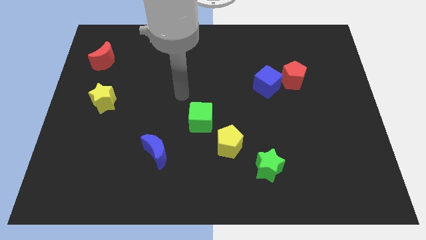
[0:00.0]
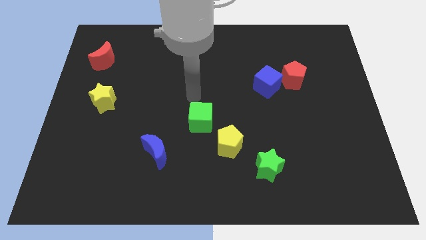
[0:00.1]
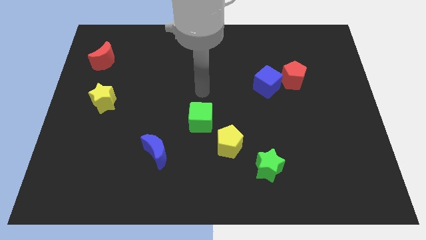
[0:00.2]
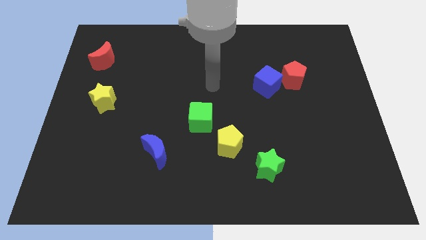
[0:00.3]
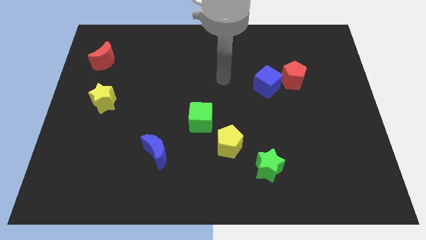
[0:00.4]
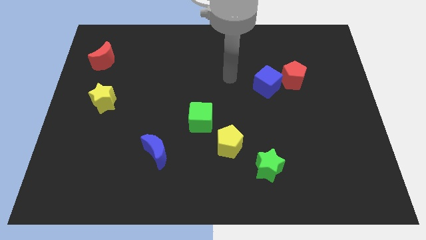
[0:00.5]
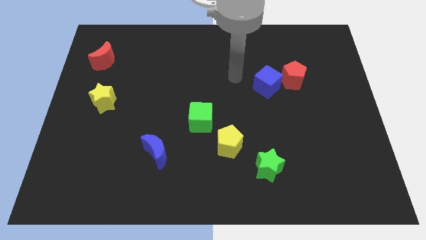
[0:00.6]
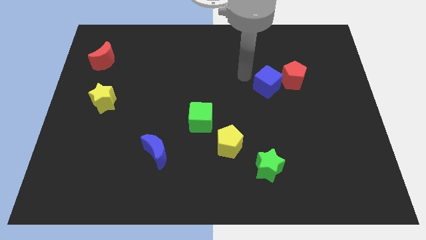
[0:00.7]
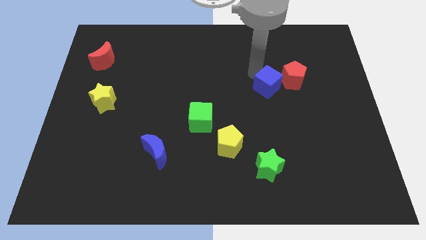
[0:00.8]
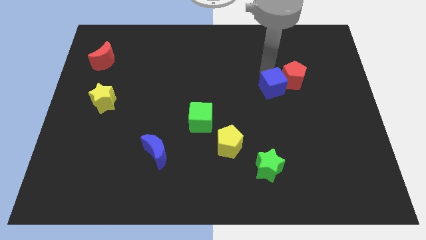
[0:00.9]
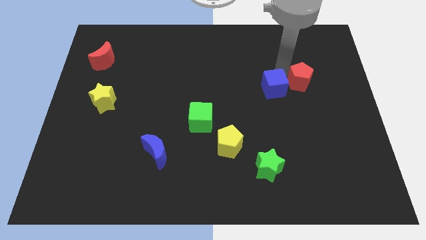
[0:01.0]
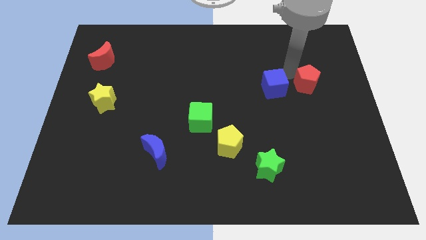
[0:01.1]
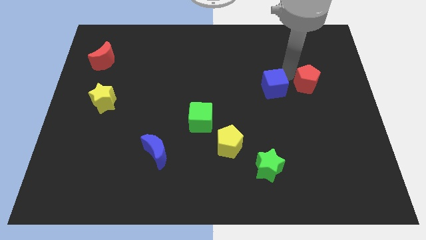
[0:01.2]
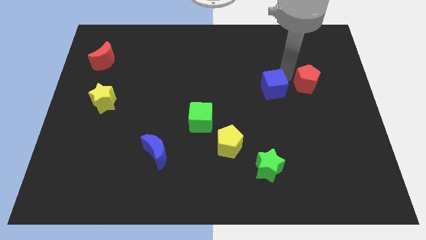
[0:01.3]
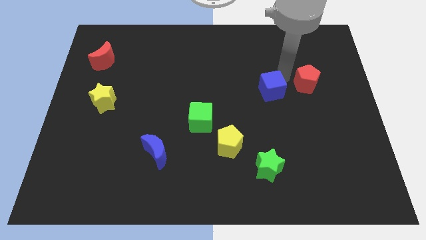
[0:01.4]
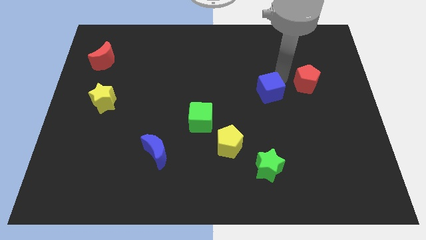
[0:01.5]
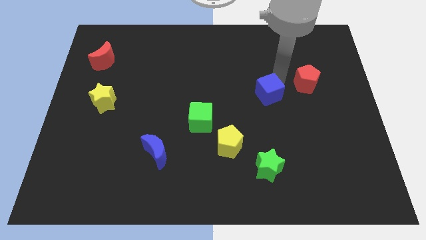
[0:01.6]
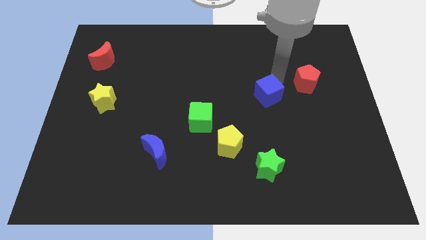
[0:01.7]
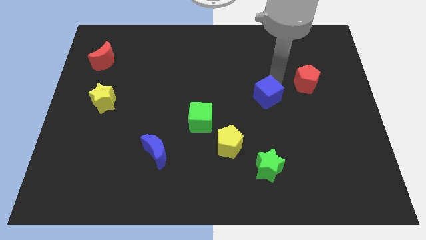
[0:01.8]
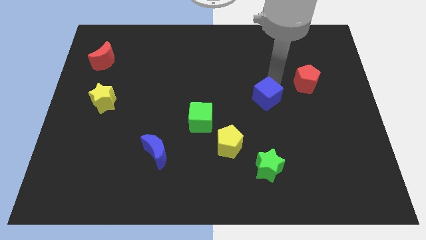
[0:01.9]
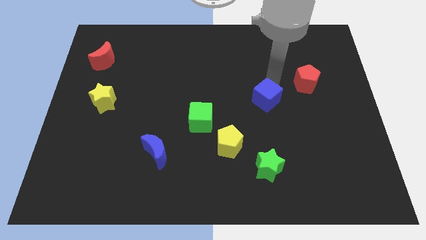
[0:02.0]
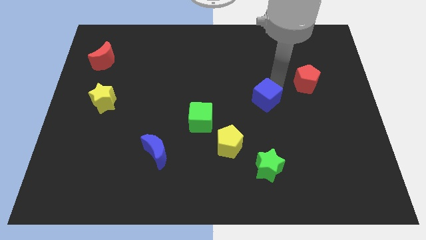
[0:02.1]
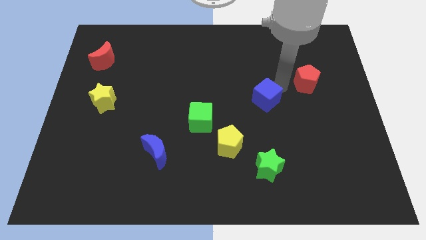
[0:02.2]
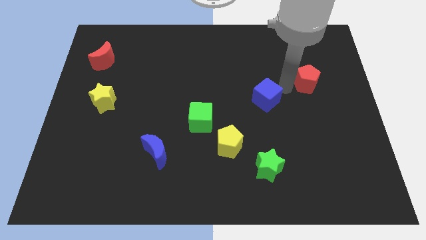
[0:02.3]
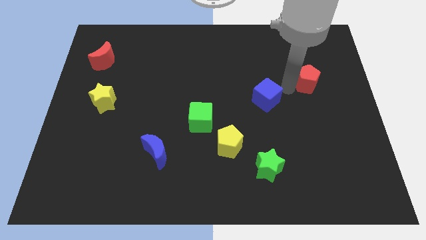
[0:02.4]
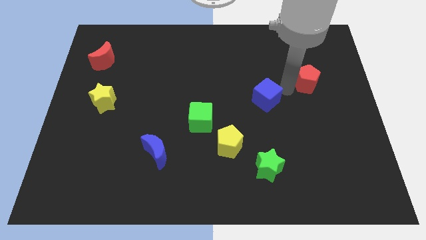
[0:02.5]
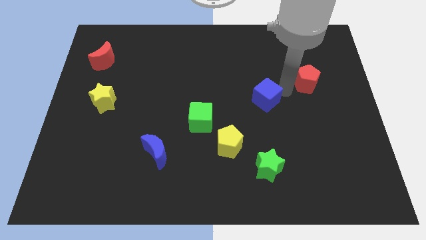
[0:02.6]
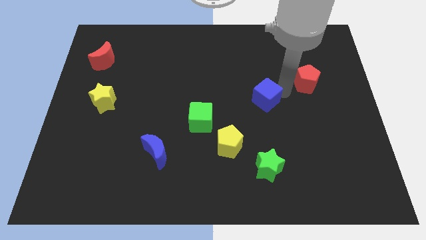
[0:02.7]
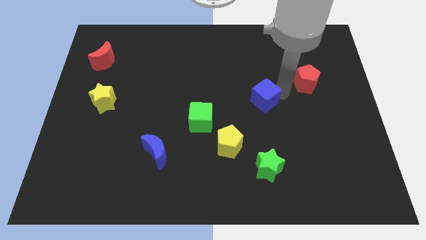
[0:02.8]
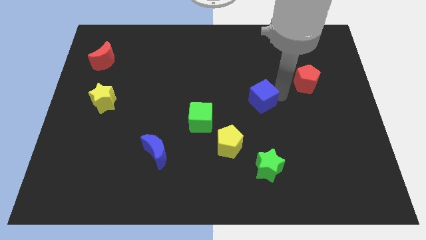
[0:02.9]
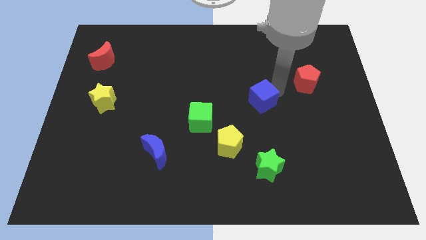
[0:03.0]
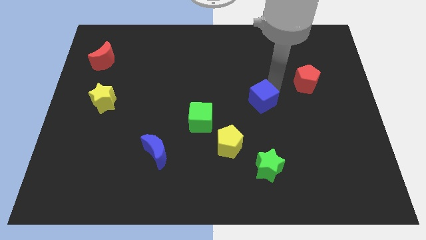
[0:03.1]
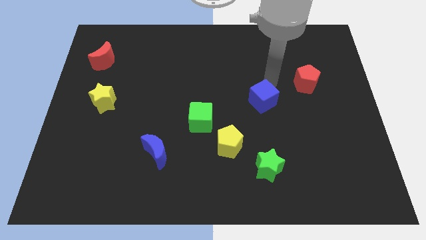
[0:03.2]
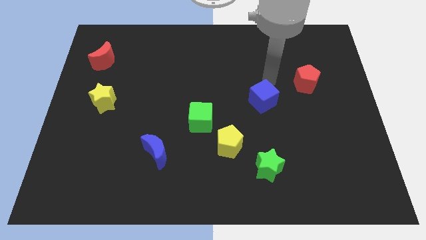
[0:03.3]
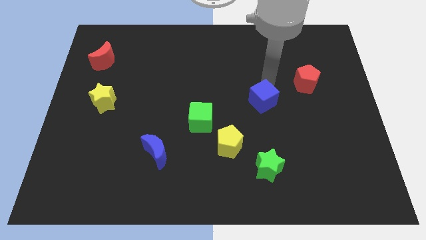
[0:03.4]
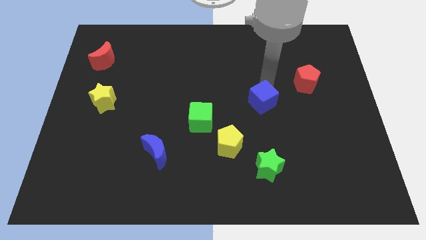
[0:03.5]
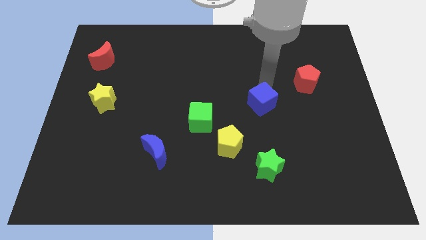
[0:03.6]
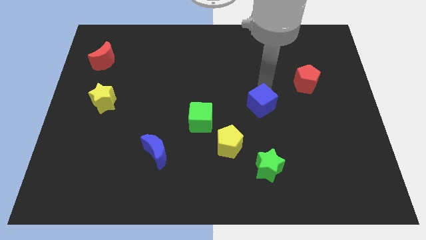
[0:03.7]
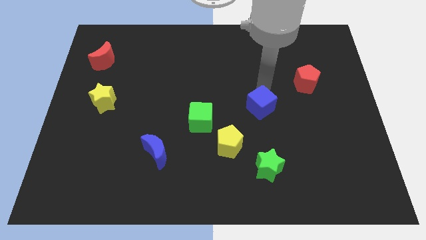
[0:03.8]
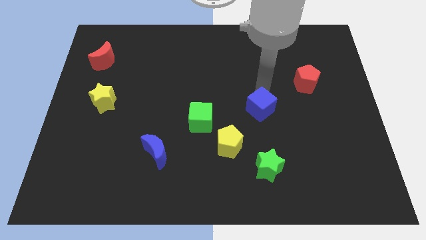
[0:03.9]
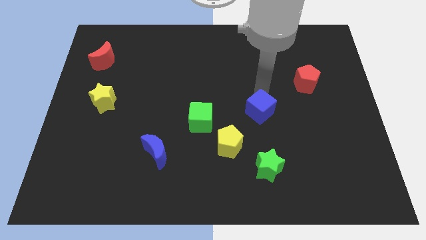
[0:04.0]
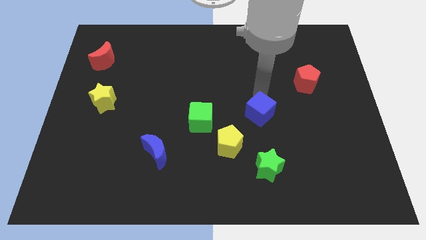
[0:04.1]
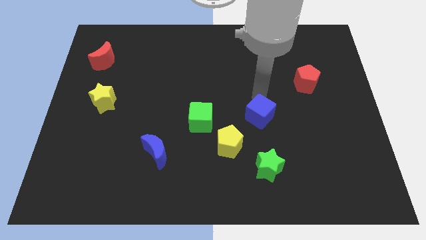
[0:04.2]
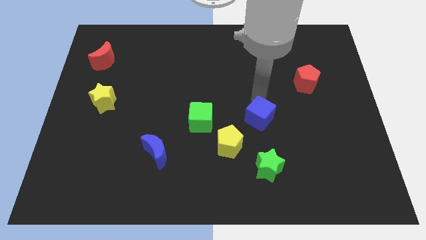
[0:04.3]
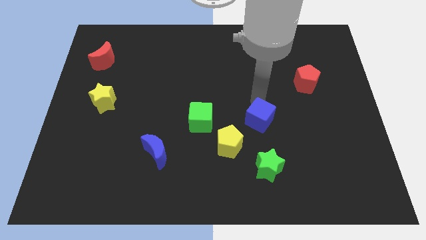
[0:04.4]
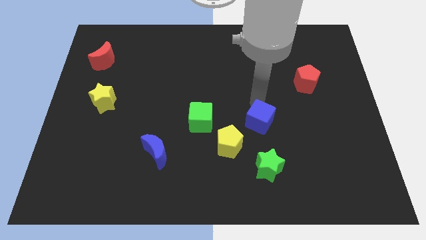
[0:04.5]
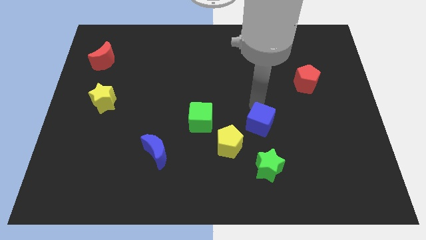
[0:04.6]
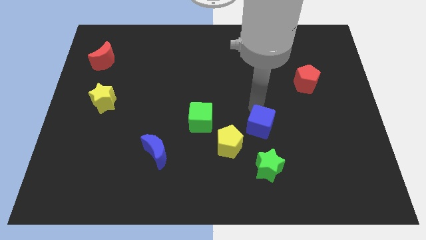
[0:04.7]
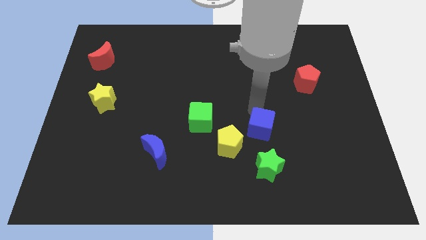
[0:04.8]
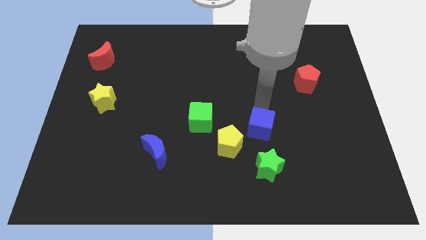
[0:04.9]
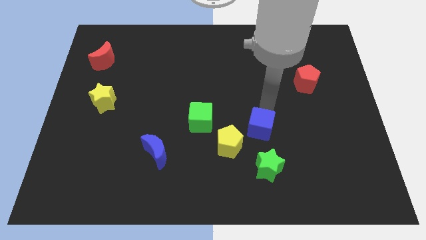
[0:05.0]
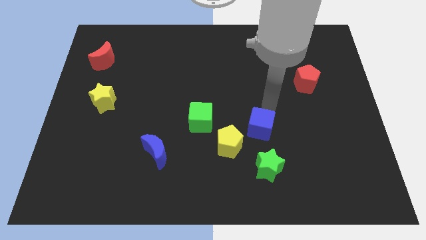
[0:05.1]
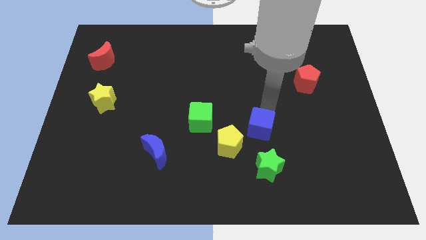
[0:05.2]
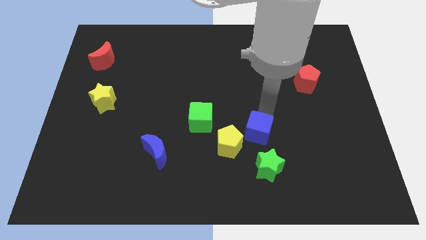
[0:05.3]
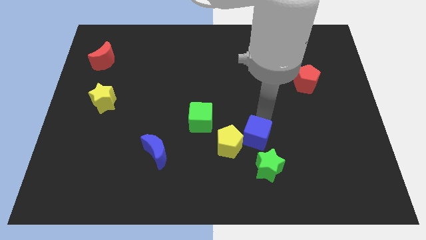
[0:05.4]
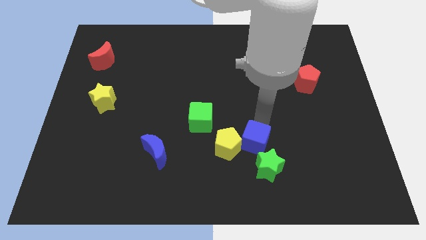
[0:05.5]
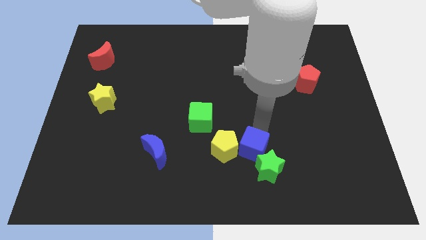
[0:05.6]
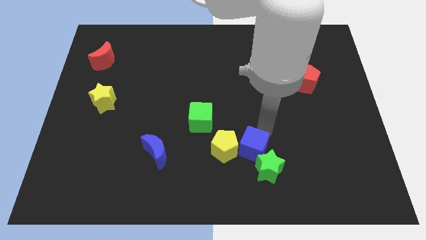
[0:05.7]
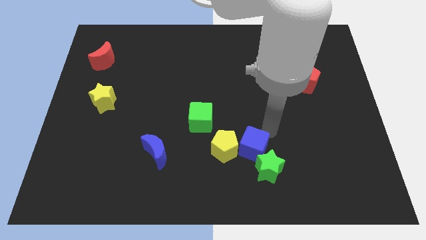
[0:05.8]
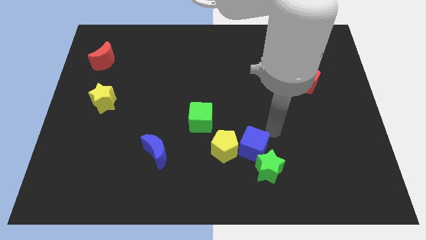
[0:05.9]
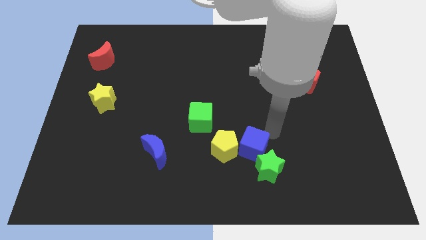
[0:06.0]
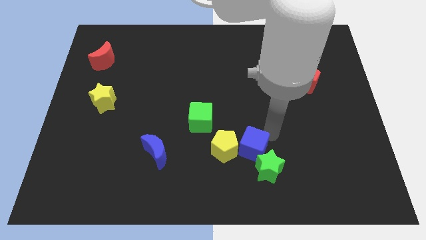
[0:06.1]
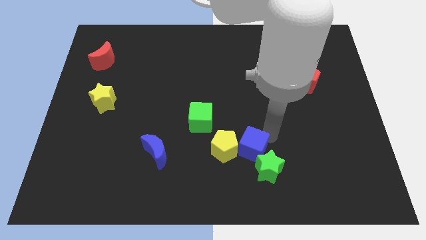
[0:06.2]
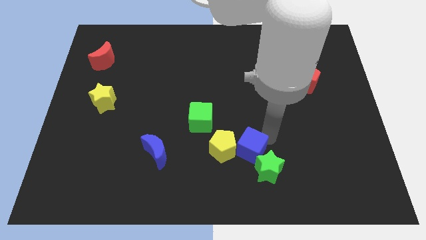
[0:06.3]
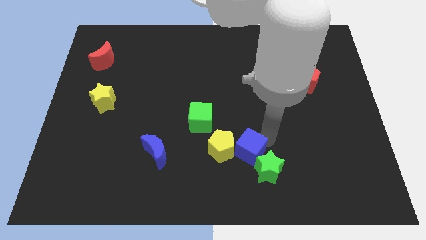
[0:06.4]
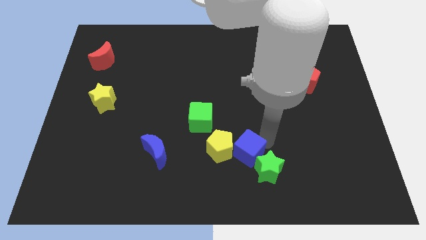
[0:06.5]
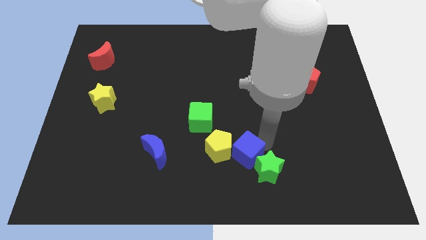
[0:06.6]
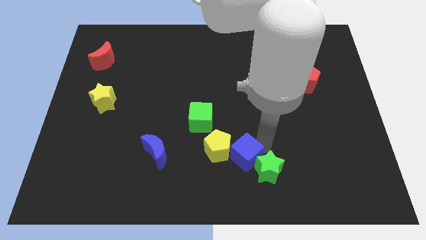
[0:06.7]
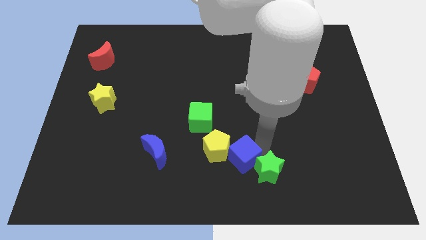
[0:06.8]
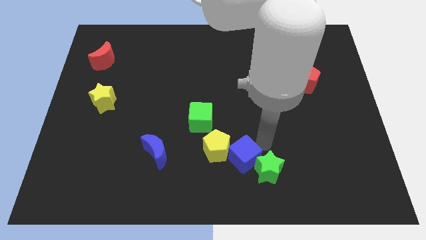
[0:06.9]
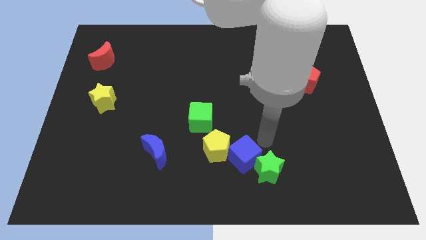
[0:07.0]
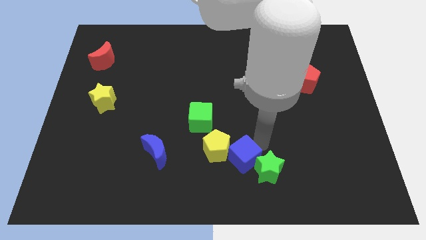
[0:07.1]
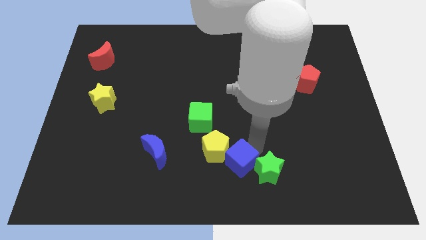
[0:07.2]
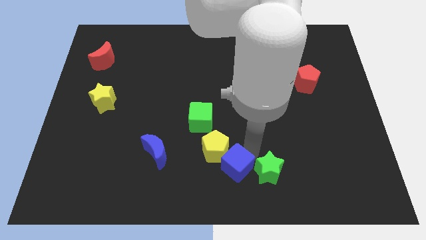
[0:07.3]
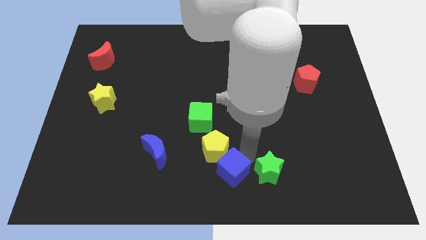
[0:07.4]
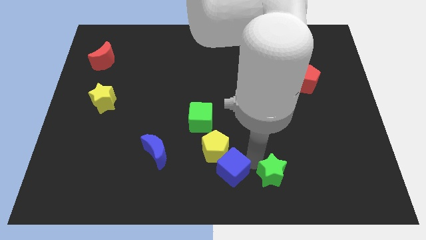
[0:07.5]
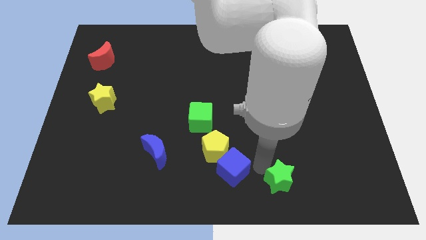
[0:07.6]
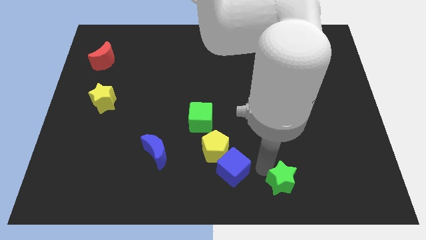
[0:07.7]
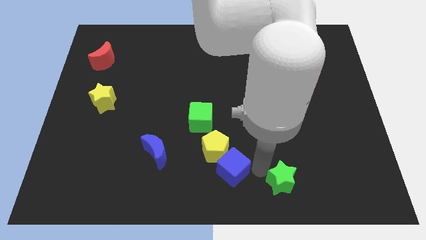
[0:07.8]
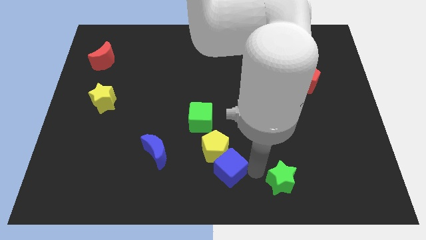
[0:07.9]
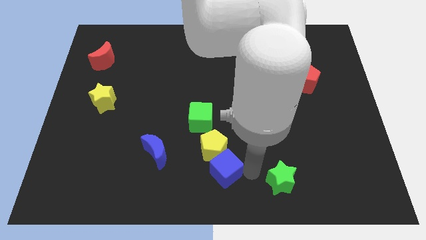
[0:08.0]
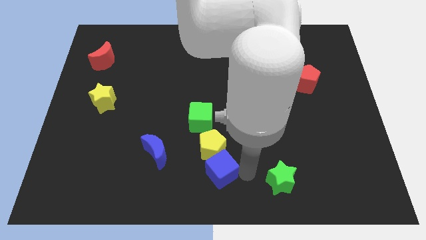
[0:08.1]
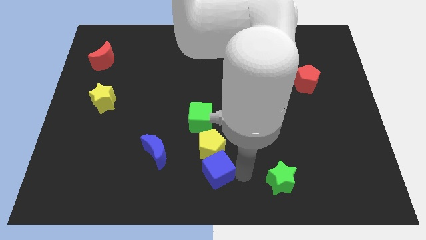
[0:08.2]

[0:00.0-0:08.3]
push the blue cube diagonally down and to the left of the yellow pentagon
